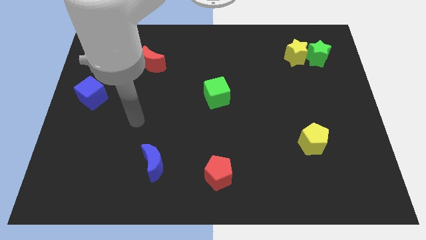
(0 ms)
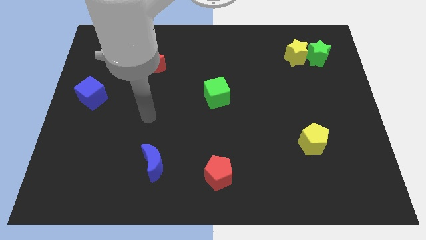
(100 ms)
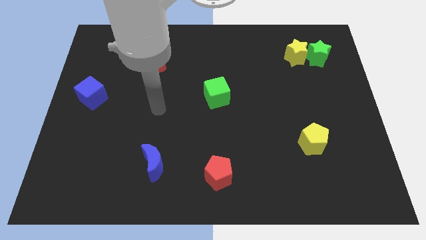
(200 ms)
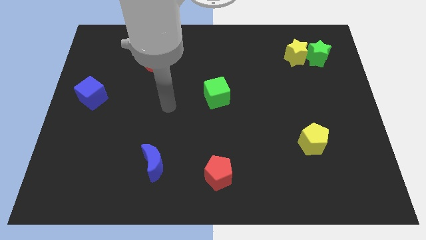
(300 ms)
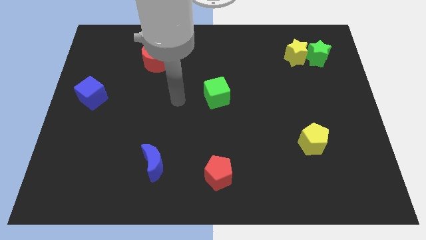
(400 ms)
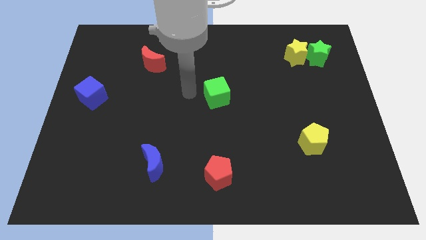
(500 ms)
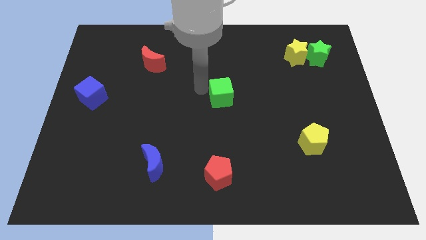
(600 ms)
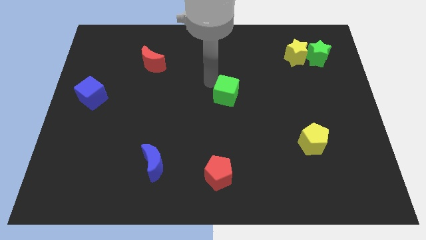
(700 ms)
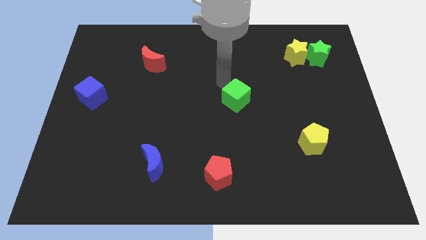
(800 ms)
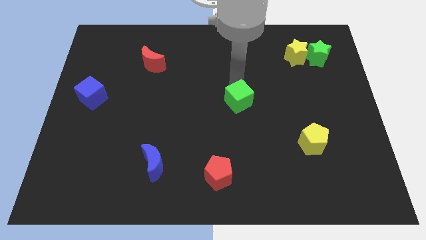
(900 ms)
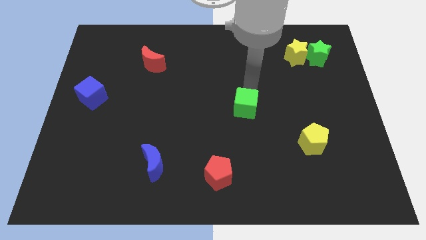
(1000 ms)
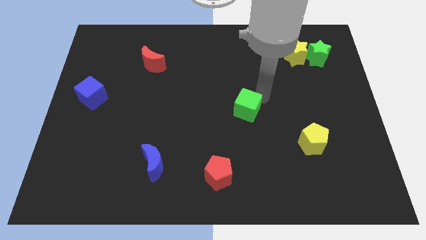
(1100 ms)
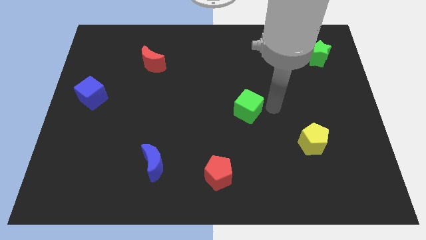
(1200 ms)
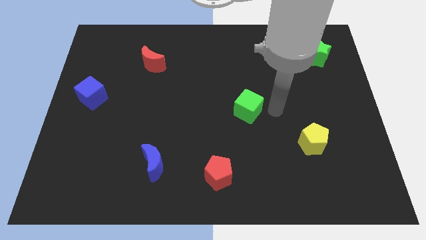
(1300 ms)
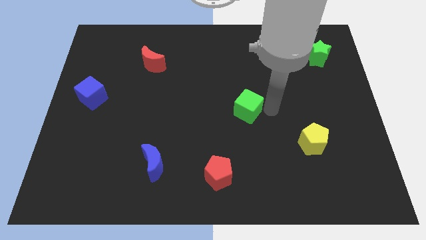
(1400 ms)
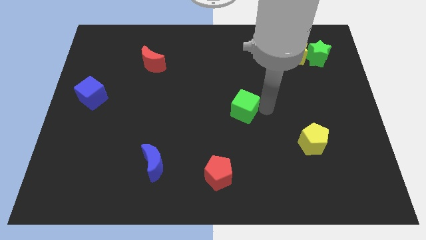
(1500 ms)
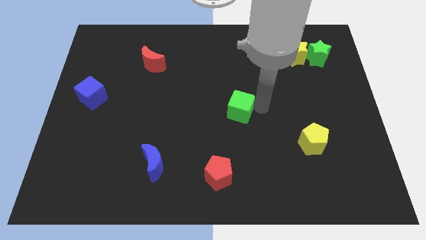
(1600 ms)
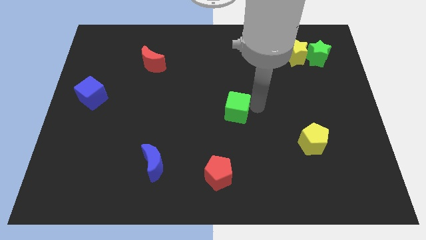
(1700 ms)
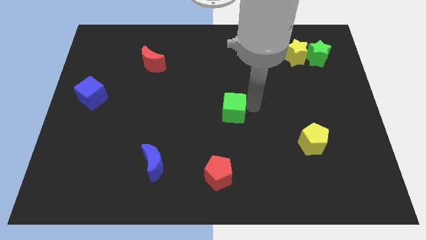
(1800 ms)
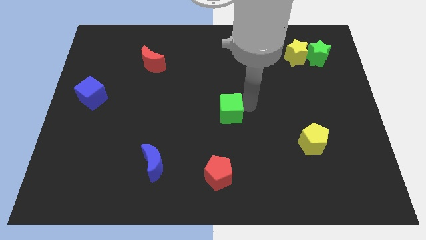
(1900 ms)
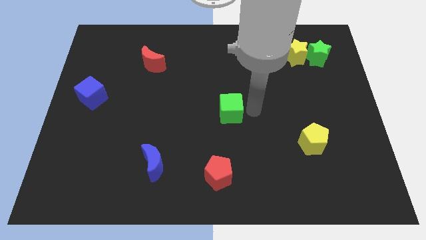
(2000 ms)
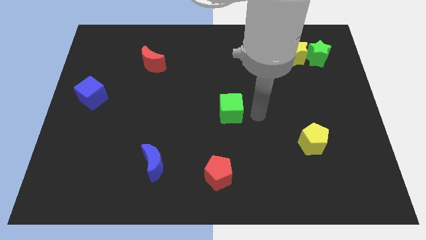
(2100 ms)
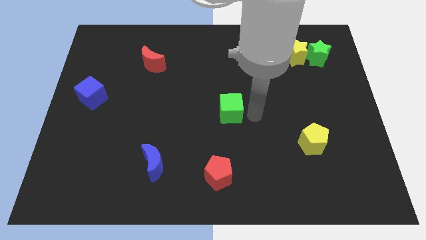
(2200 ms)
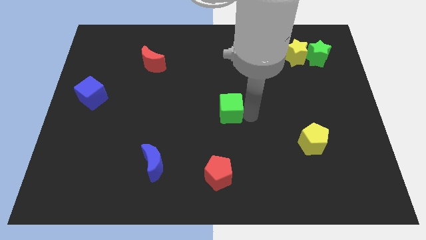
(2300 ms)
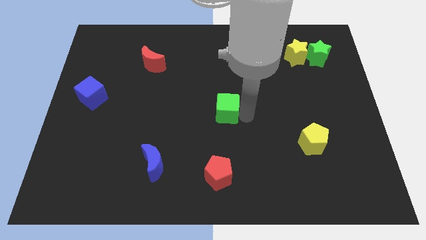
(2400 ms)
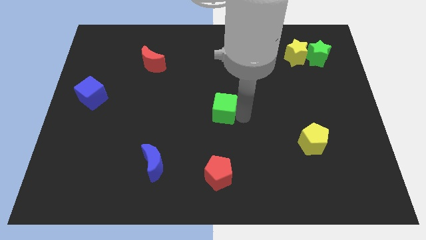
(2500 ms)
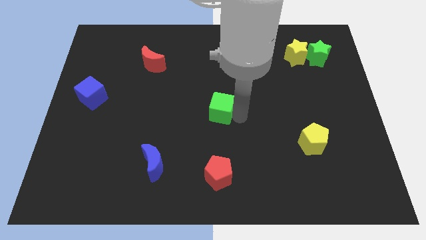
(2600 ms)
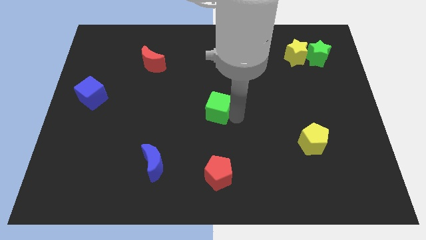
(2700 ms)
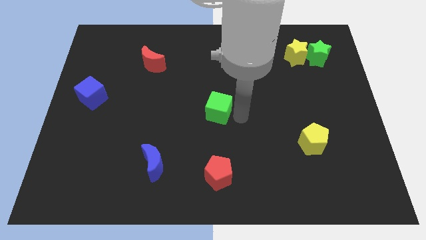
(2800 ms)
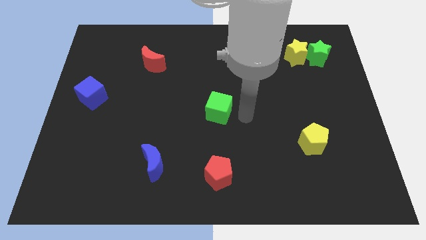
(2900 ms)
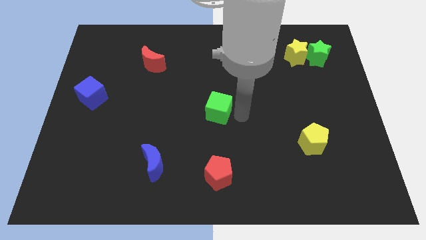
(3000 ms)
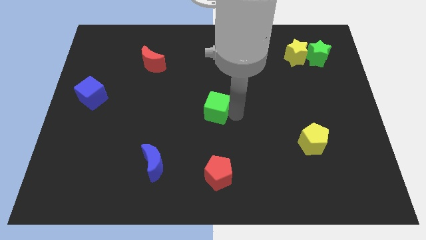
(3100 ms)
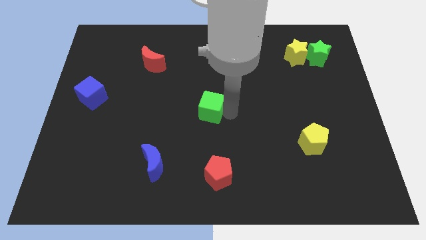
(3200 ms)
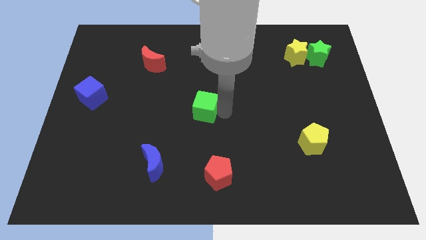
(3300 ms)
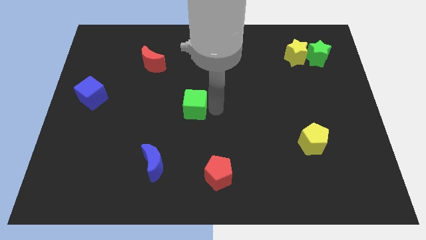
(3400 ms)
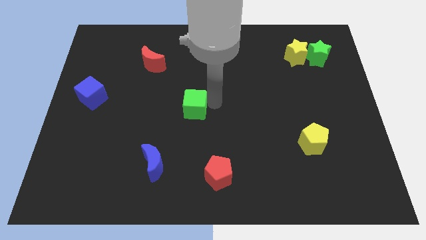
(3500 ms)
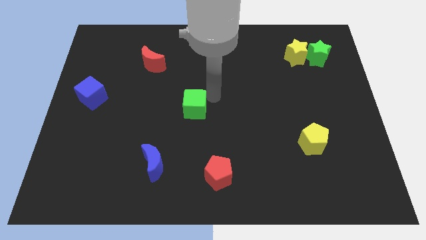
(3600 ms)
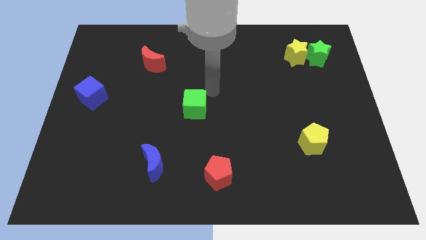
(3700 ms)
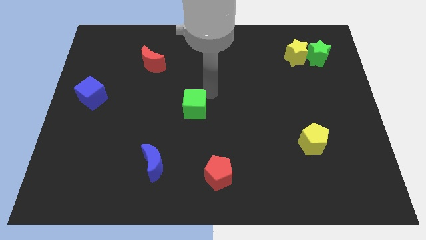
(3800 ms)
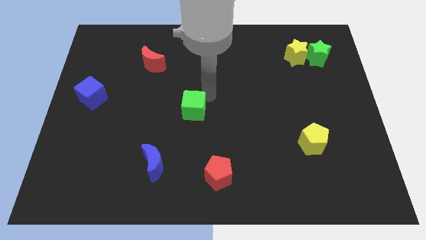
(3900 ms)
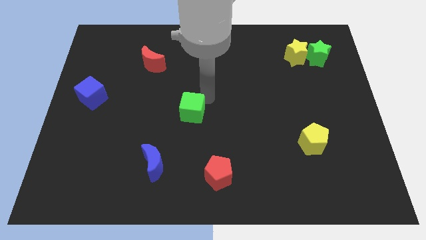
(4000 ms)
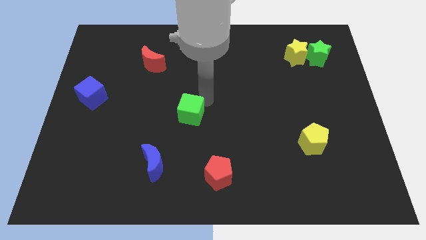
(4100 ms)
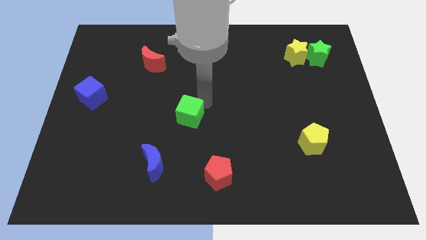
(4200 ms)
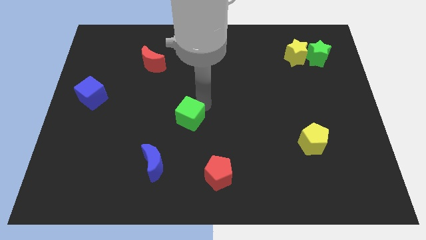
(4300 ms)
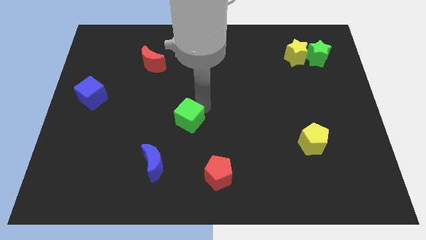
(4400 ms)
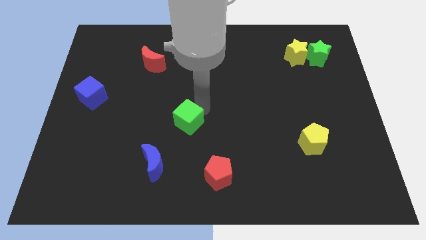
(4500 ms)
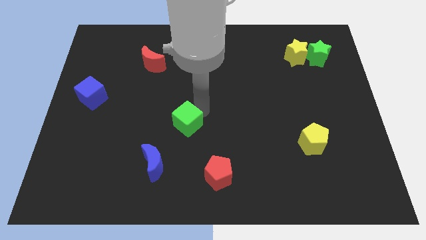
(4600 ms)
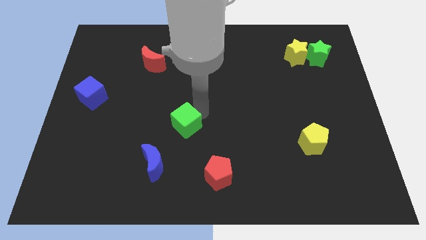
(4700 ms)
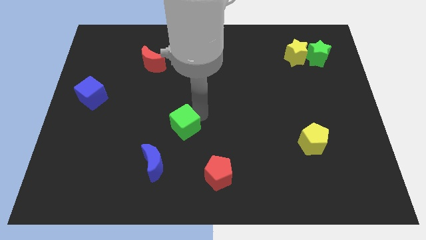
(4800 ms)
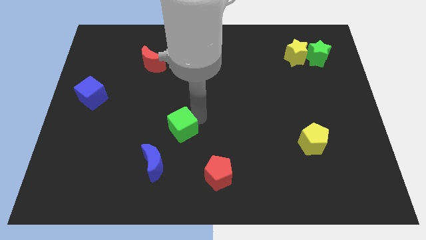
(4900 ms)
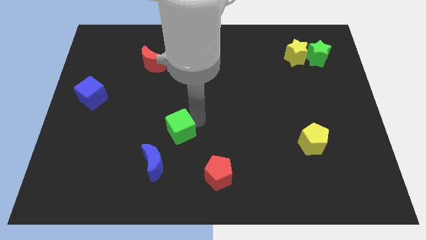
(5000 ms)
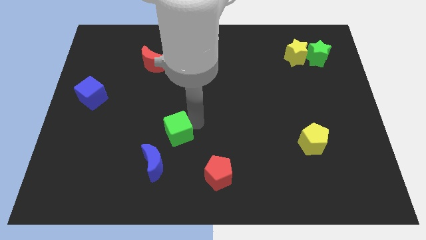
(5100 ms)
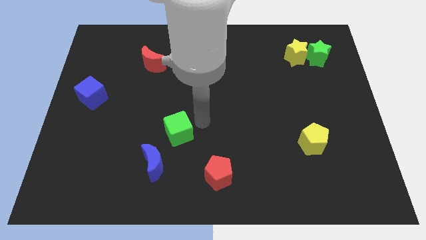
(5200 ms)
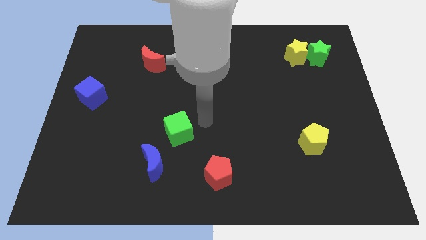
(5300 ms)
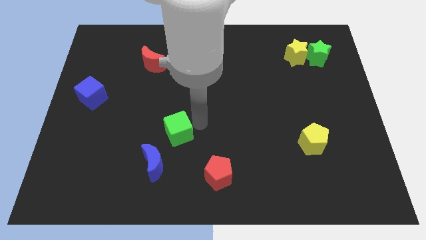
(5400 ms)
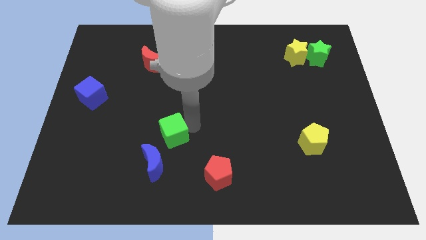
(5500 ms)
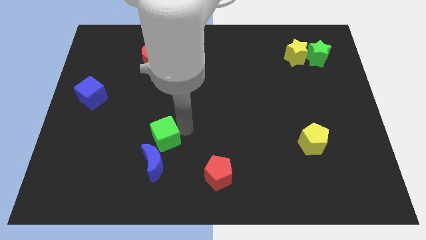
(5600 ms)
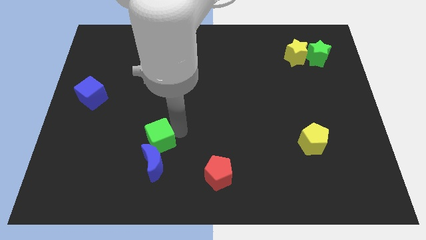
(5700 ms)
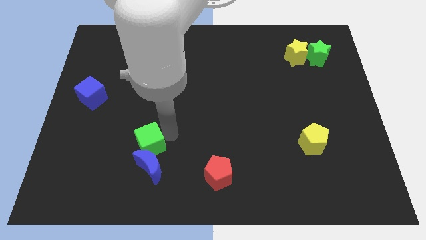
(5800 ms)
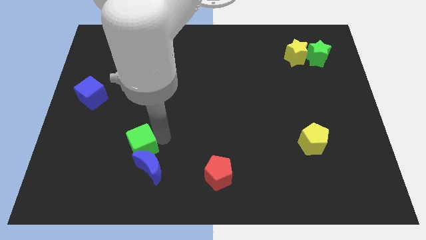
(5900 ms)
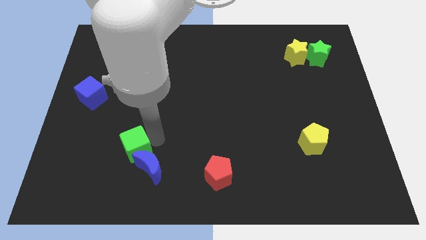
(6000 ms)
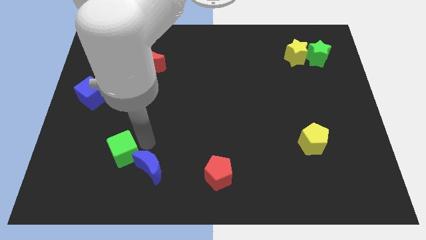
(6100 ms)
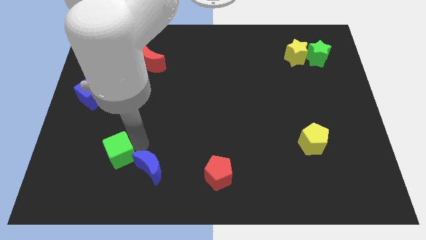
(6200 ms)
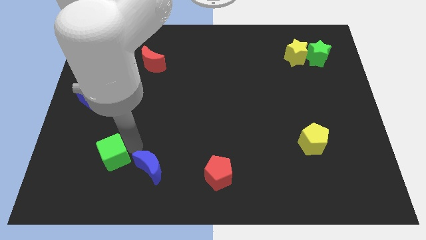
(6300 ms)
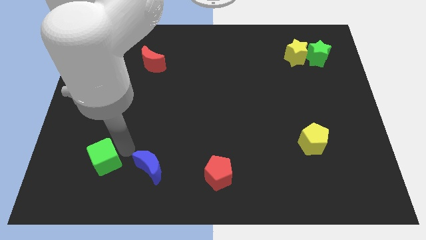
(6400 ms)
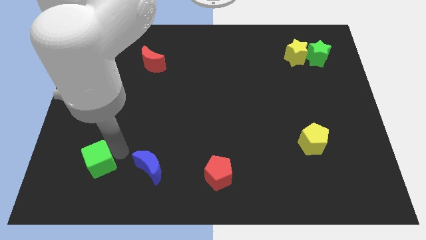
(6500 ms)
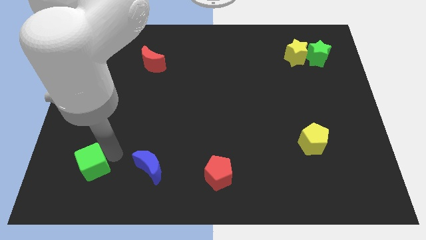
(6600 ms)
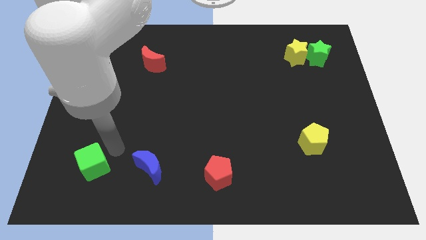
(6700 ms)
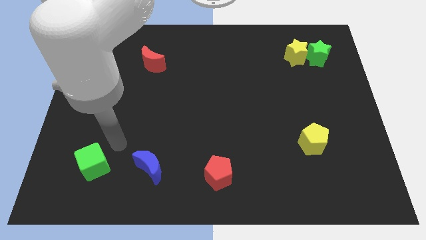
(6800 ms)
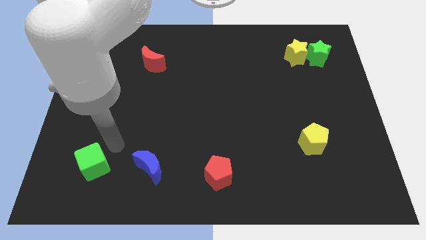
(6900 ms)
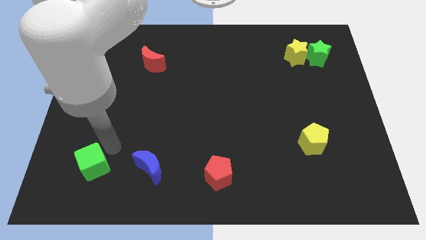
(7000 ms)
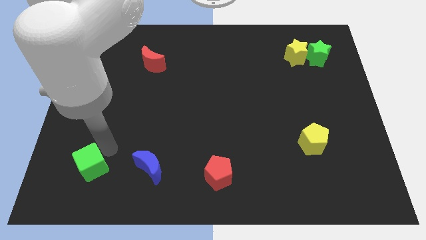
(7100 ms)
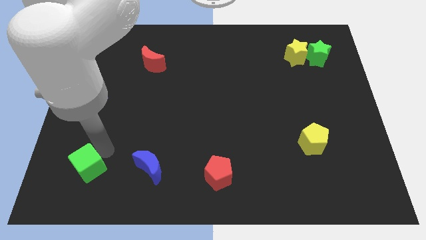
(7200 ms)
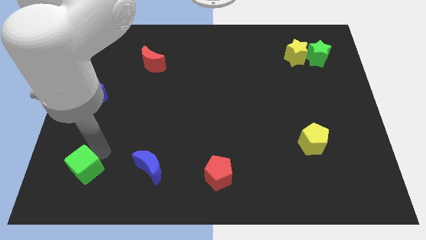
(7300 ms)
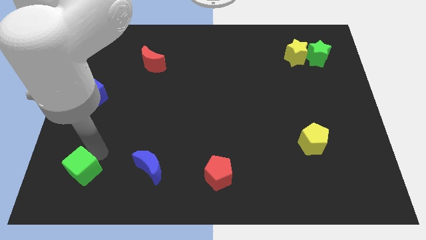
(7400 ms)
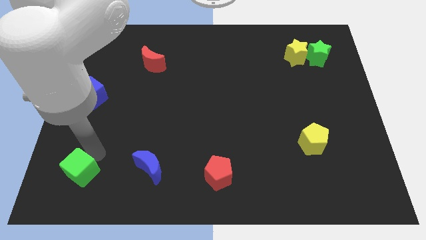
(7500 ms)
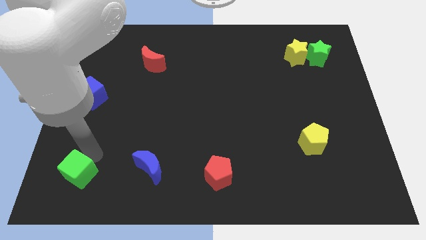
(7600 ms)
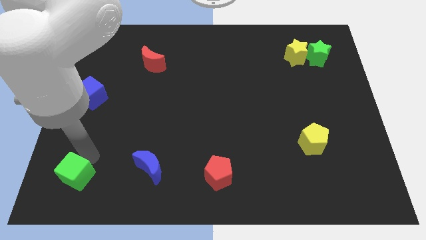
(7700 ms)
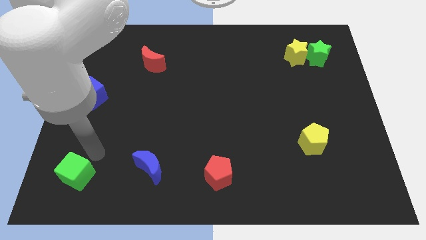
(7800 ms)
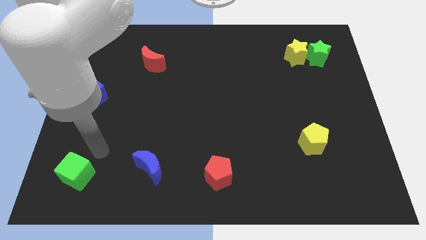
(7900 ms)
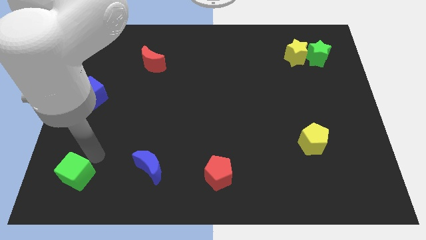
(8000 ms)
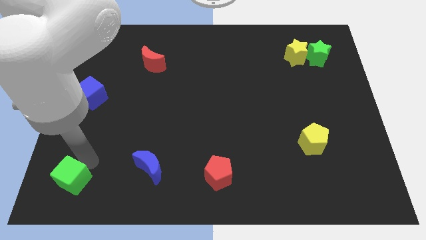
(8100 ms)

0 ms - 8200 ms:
push the green cube to the bottom left corner
